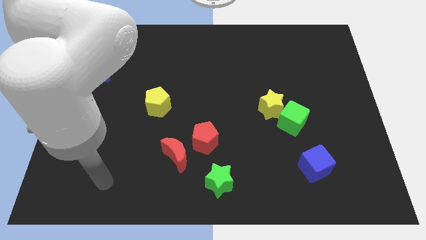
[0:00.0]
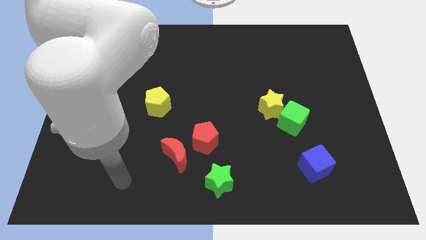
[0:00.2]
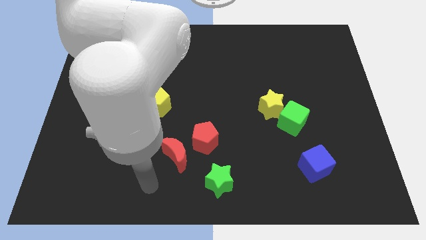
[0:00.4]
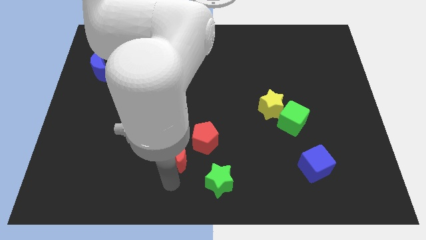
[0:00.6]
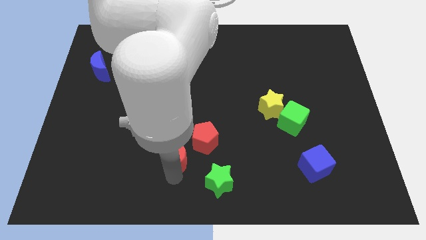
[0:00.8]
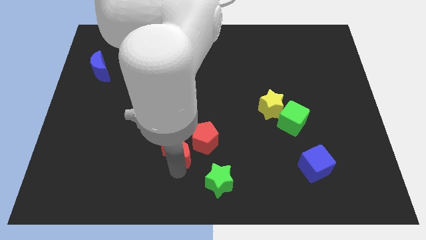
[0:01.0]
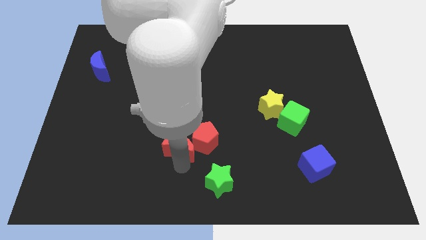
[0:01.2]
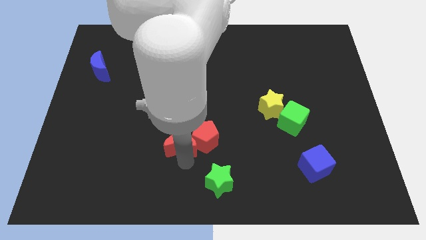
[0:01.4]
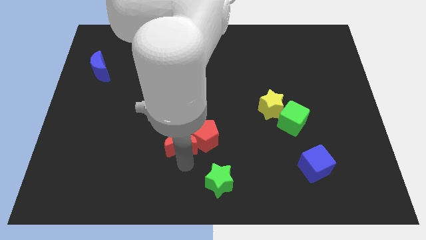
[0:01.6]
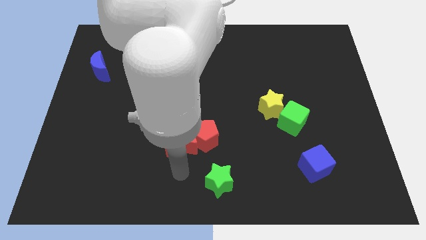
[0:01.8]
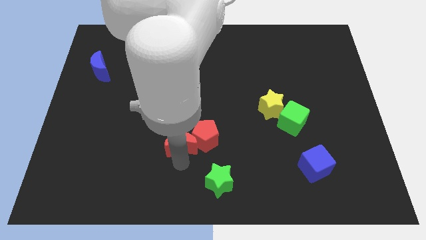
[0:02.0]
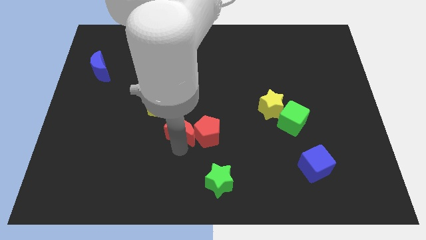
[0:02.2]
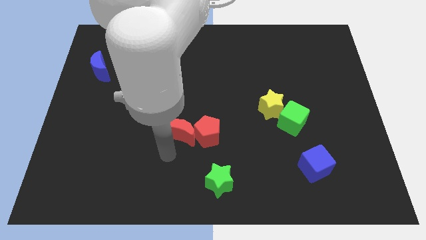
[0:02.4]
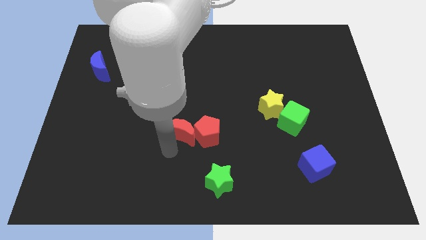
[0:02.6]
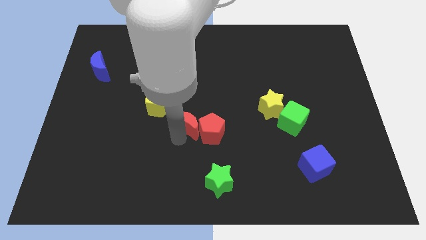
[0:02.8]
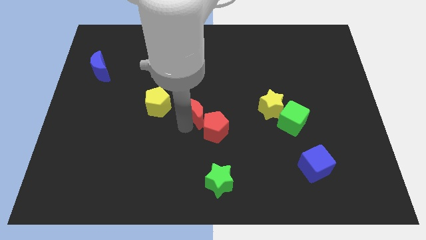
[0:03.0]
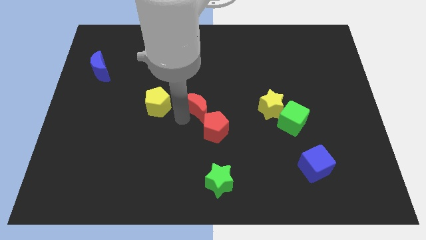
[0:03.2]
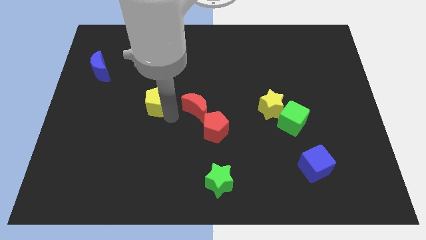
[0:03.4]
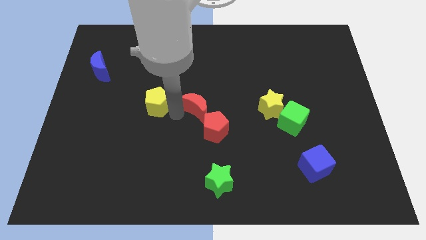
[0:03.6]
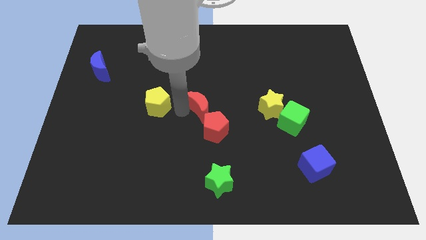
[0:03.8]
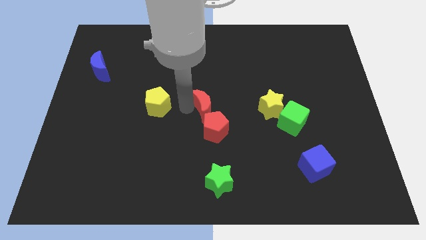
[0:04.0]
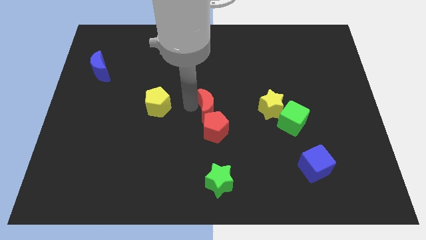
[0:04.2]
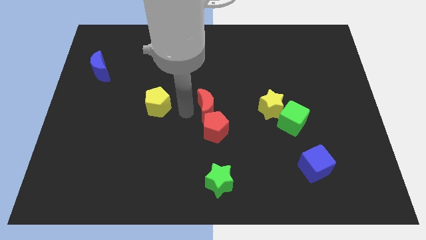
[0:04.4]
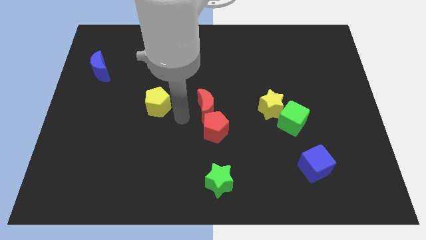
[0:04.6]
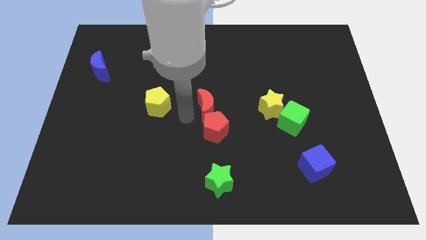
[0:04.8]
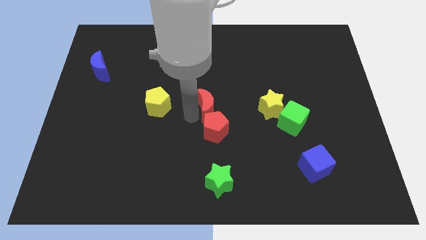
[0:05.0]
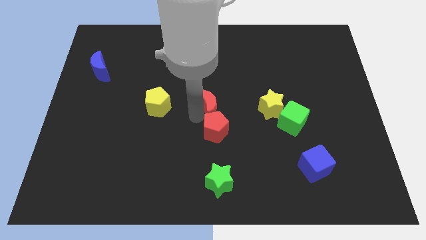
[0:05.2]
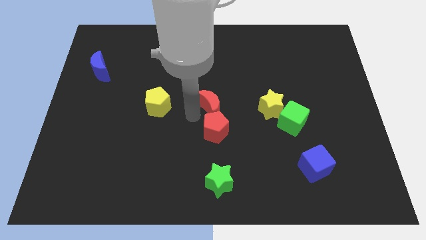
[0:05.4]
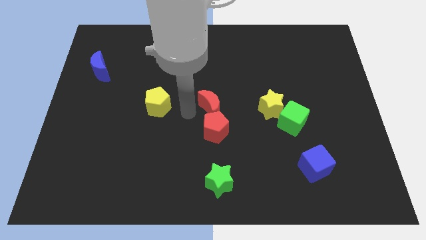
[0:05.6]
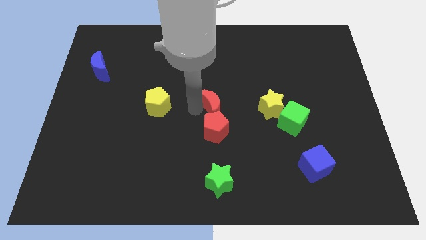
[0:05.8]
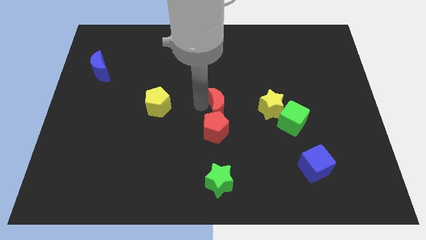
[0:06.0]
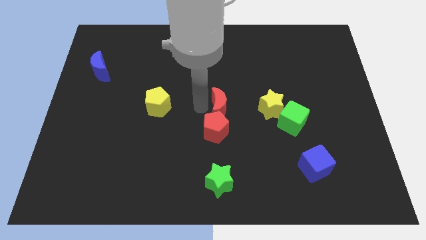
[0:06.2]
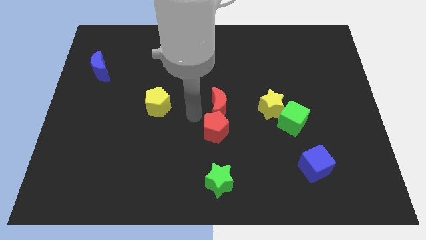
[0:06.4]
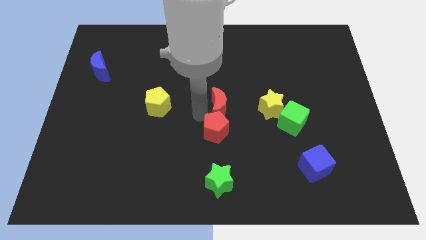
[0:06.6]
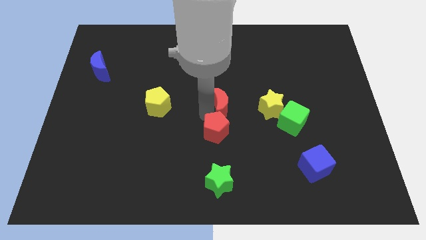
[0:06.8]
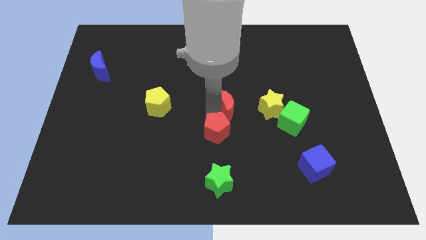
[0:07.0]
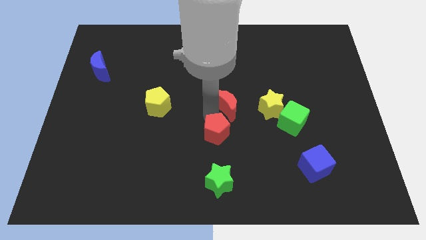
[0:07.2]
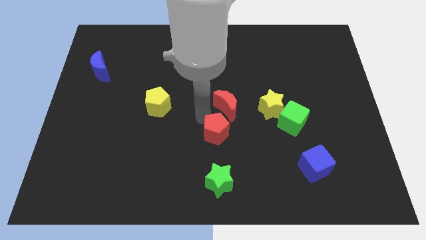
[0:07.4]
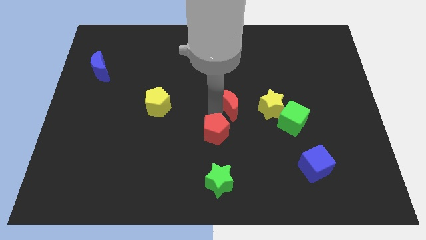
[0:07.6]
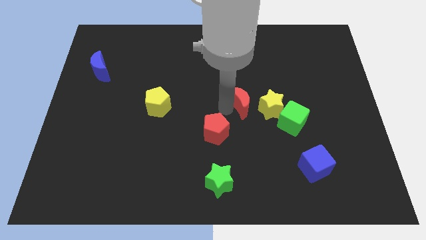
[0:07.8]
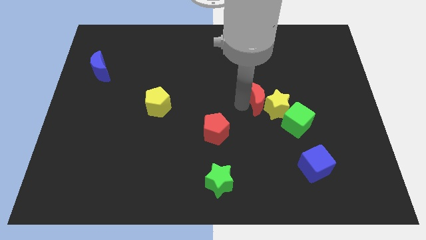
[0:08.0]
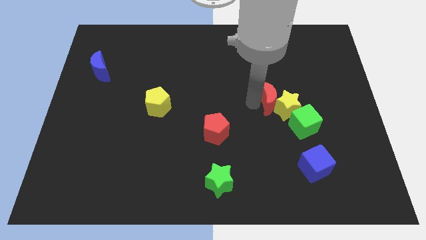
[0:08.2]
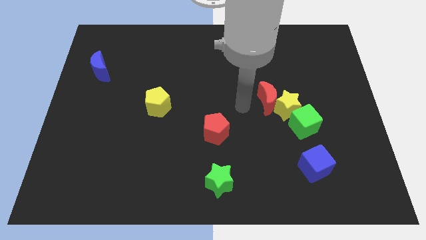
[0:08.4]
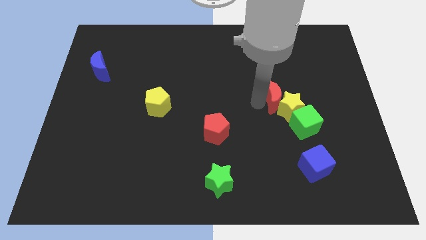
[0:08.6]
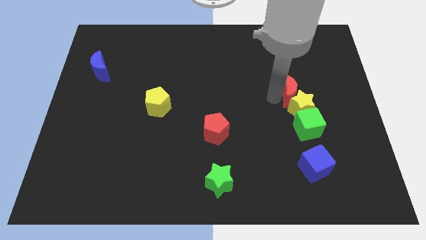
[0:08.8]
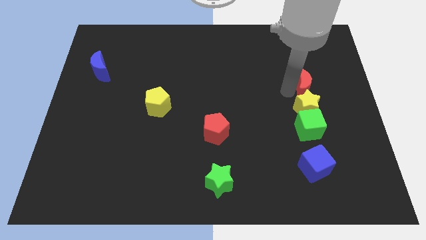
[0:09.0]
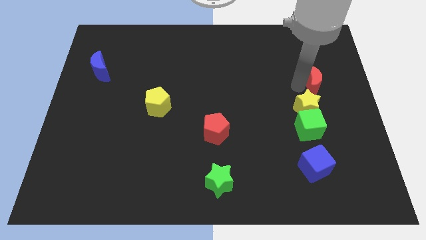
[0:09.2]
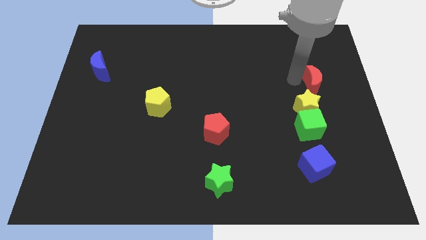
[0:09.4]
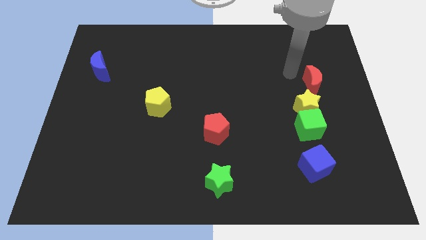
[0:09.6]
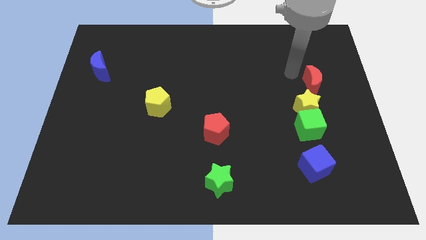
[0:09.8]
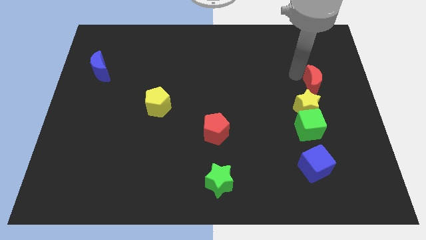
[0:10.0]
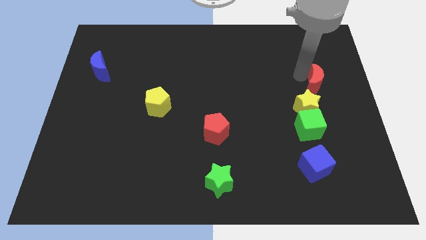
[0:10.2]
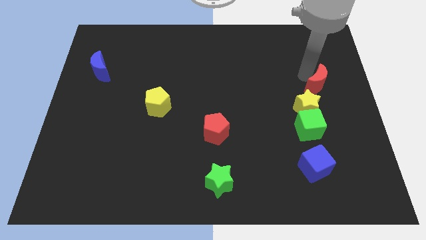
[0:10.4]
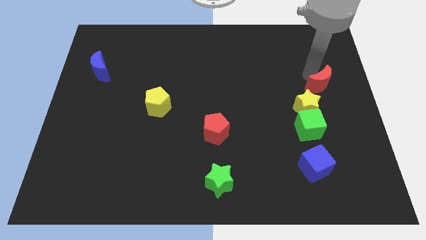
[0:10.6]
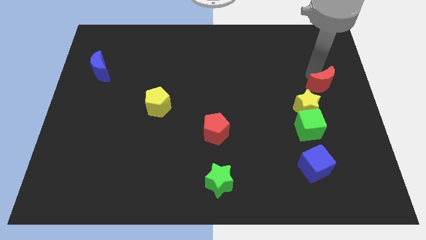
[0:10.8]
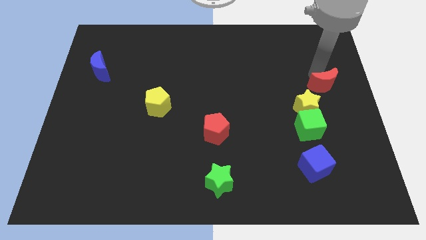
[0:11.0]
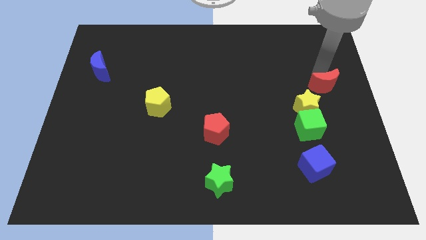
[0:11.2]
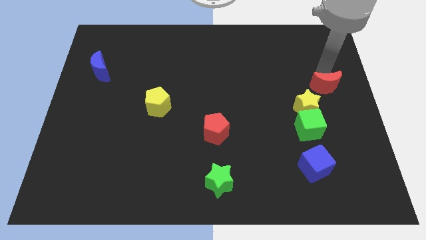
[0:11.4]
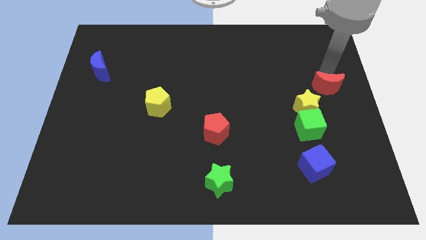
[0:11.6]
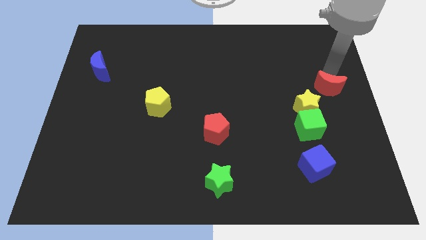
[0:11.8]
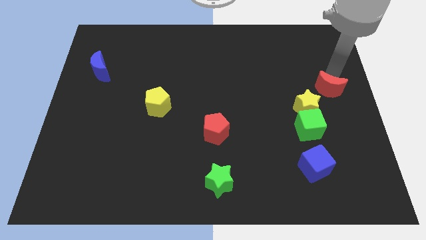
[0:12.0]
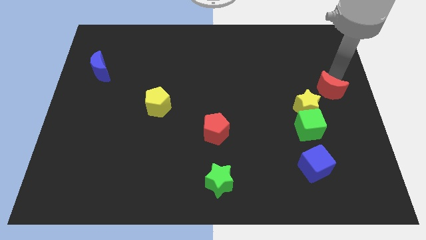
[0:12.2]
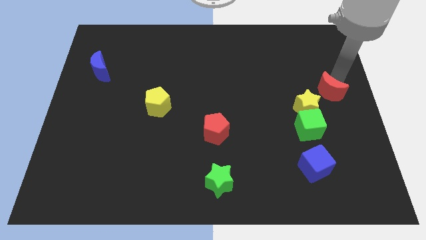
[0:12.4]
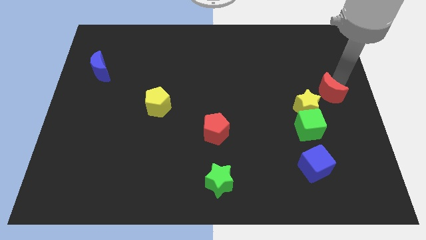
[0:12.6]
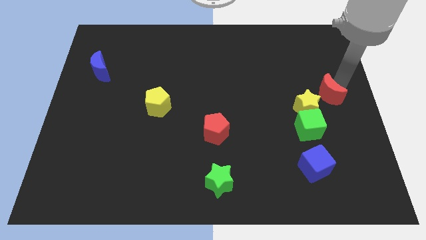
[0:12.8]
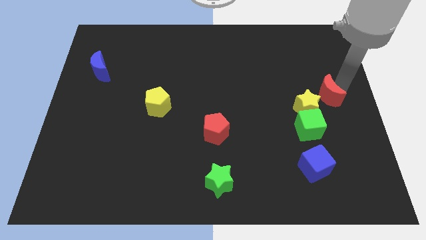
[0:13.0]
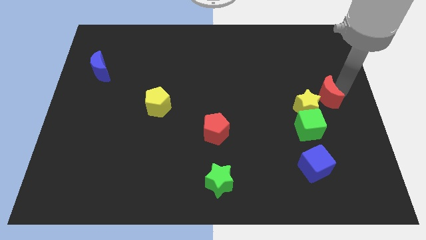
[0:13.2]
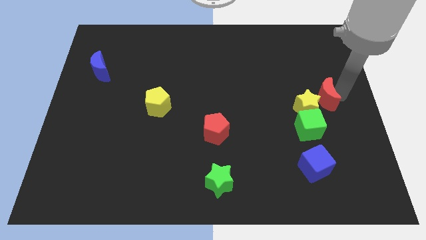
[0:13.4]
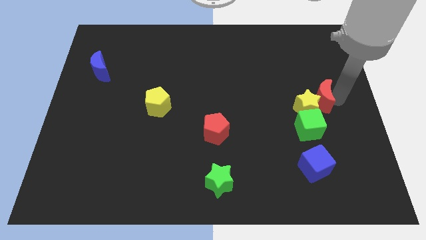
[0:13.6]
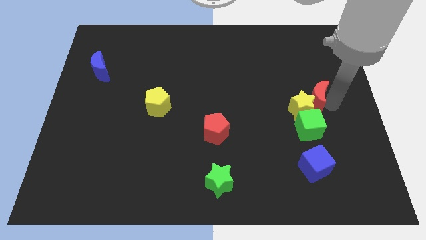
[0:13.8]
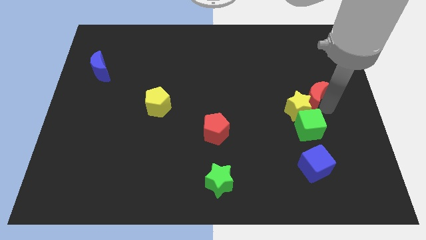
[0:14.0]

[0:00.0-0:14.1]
push the red moon to the top right side of the yellow star
